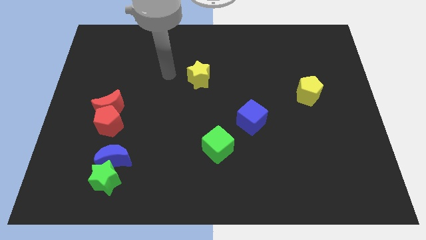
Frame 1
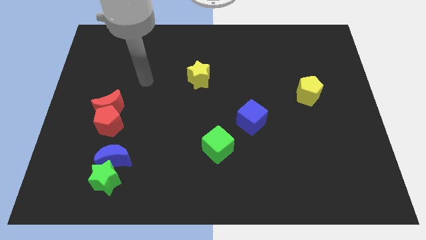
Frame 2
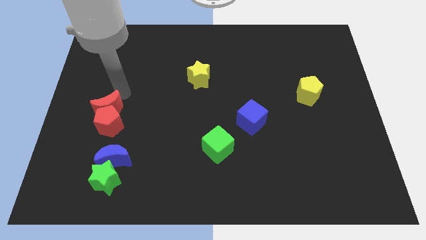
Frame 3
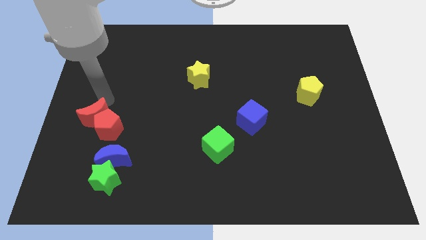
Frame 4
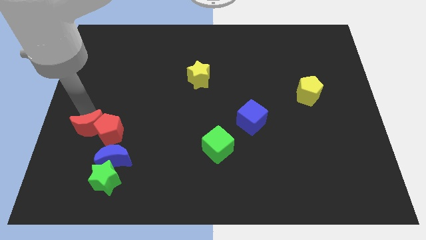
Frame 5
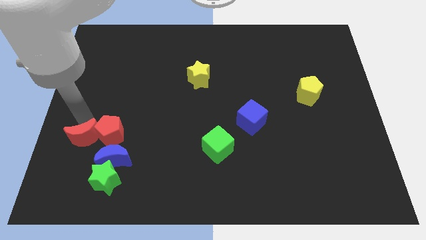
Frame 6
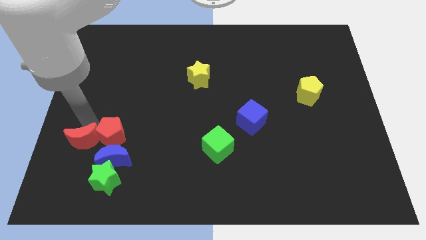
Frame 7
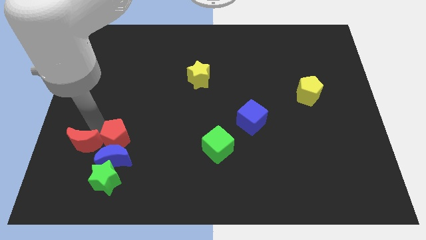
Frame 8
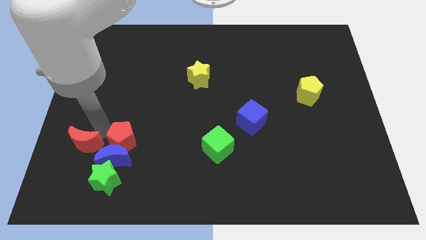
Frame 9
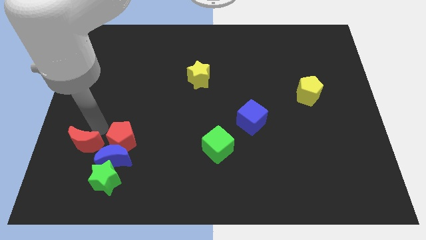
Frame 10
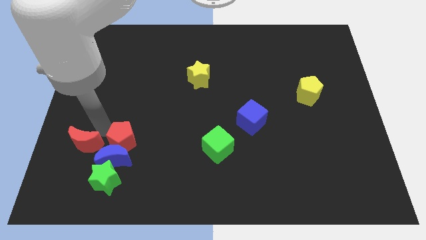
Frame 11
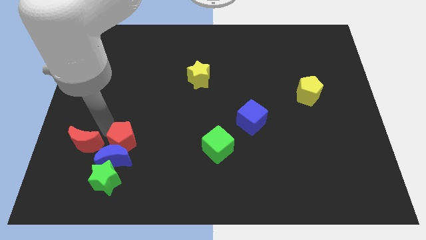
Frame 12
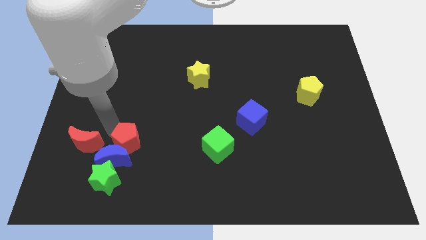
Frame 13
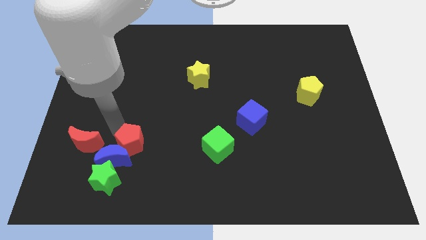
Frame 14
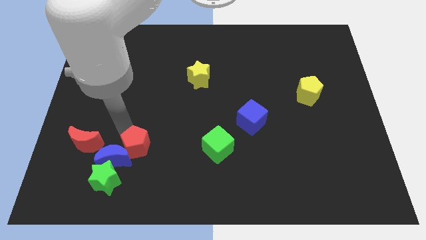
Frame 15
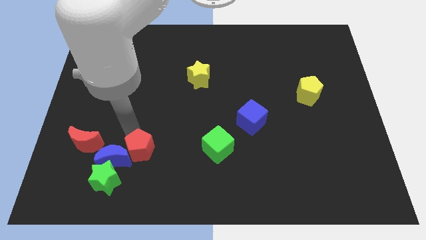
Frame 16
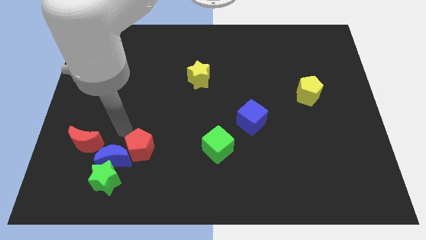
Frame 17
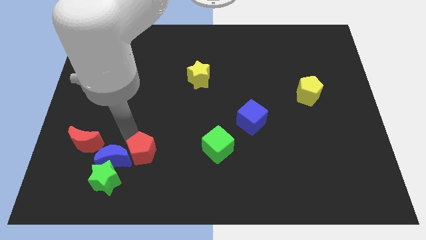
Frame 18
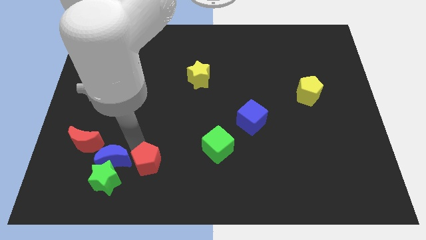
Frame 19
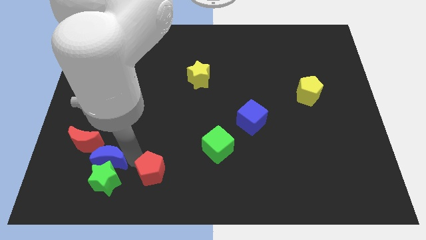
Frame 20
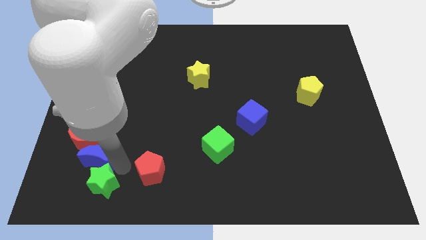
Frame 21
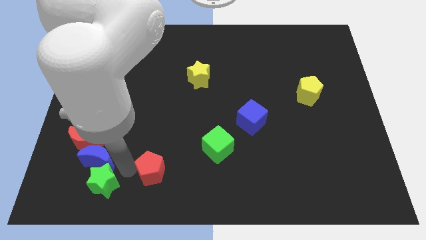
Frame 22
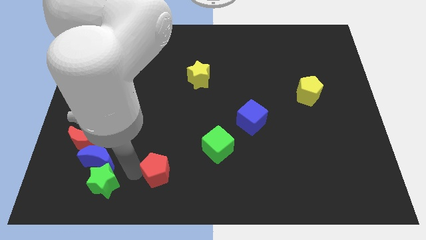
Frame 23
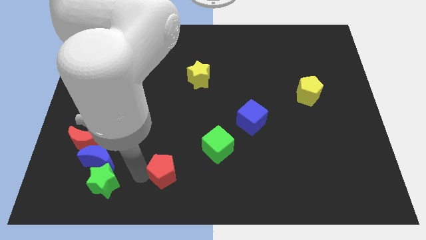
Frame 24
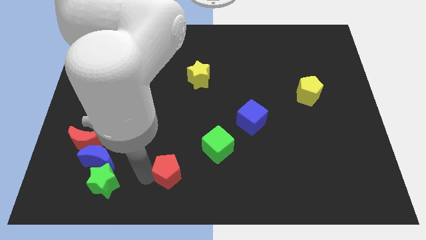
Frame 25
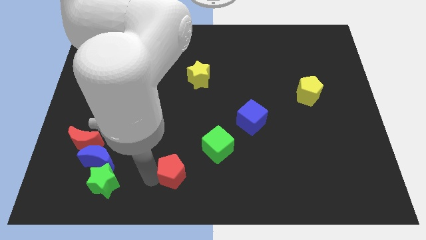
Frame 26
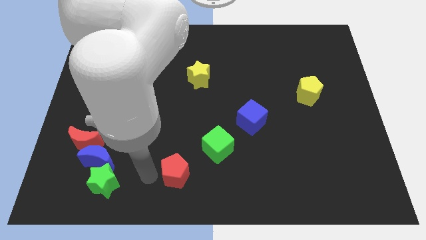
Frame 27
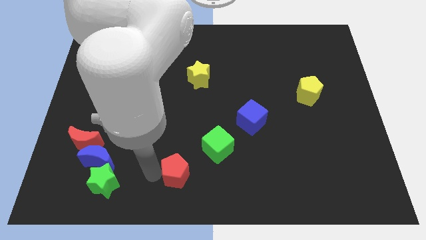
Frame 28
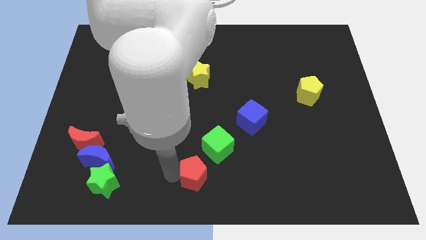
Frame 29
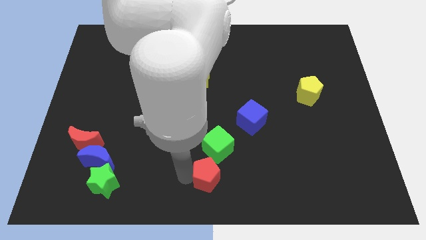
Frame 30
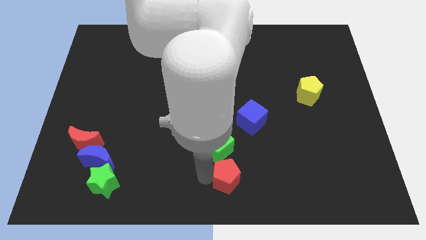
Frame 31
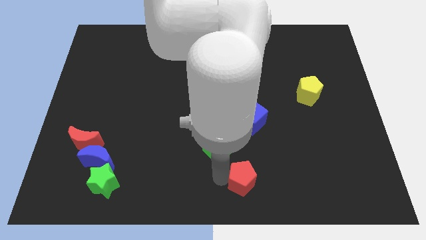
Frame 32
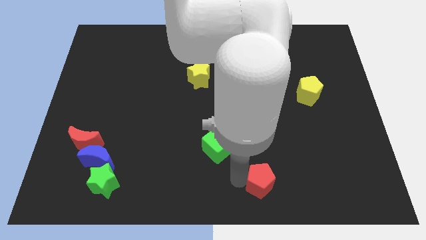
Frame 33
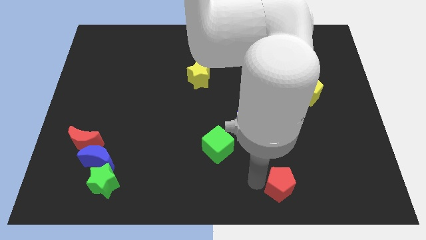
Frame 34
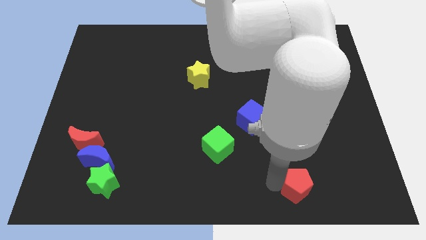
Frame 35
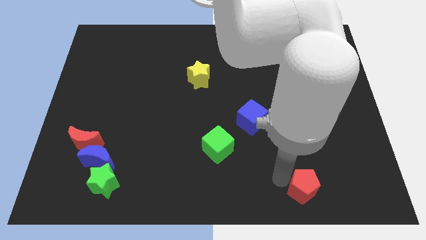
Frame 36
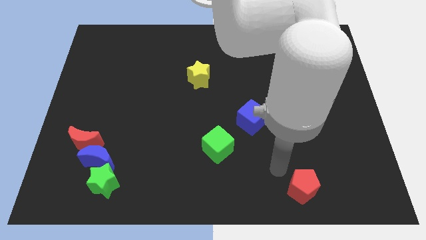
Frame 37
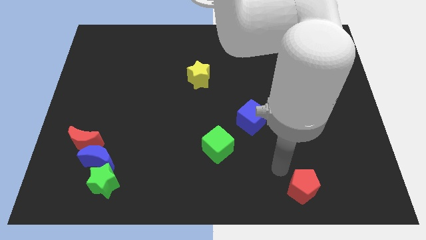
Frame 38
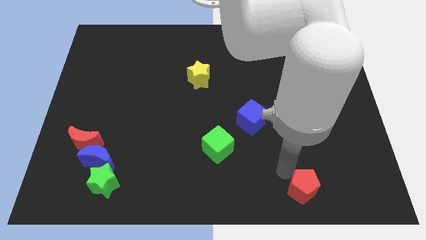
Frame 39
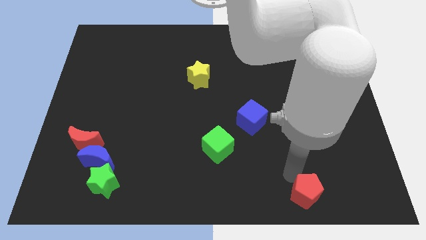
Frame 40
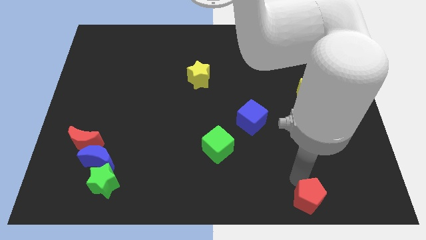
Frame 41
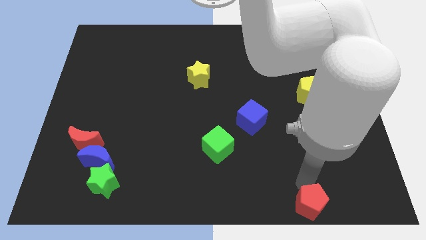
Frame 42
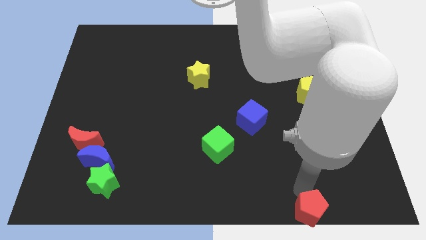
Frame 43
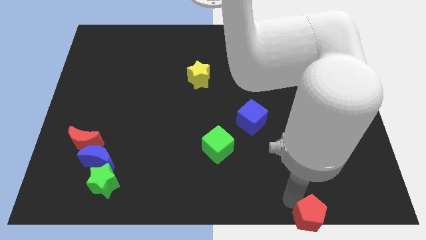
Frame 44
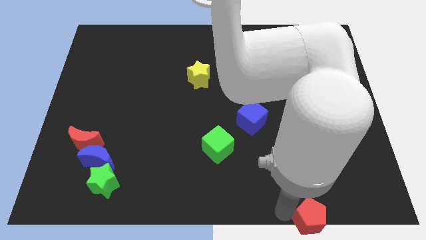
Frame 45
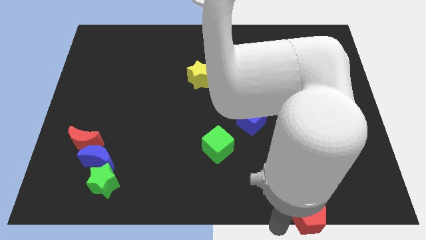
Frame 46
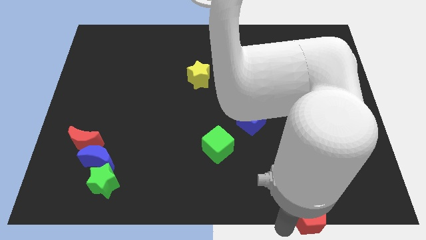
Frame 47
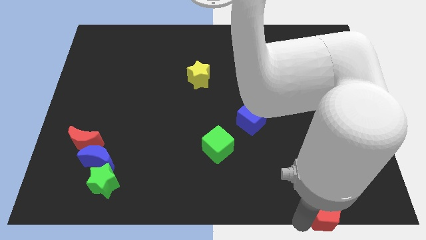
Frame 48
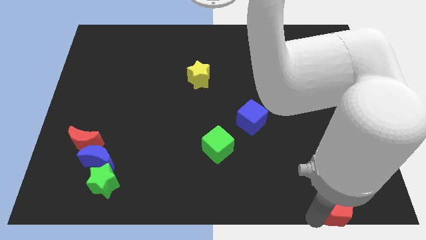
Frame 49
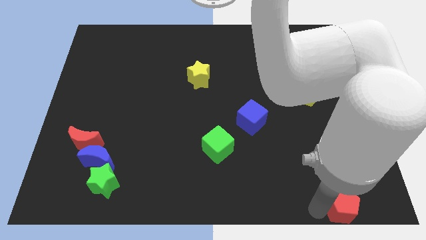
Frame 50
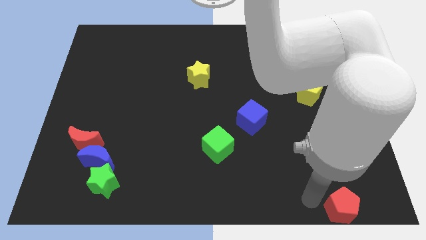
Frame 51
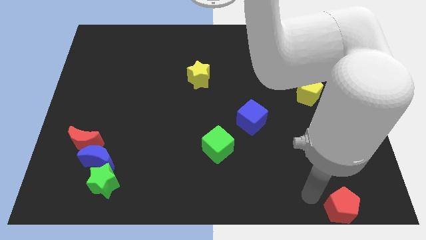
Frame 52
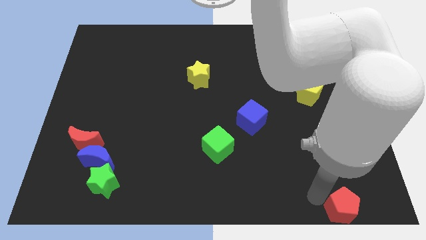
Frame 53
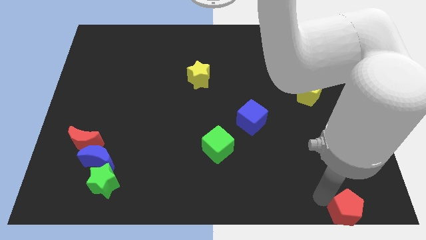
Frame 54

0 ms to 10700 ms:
push the red pentagon to the bottom right corner
